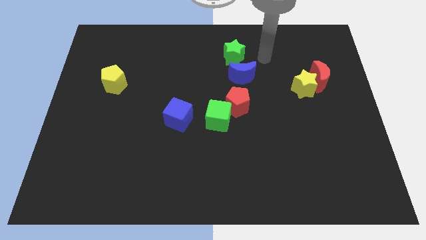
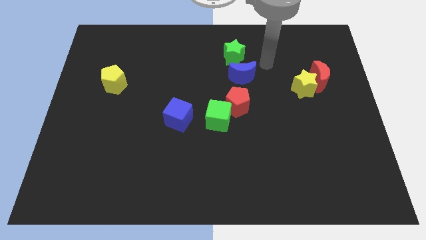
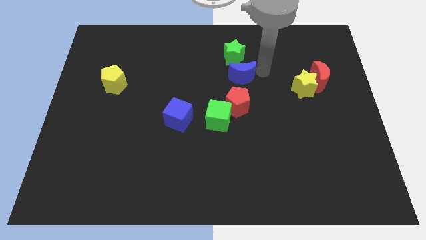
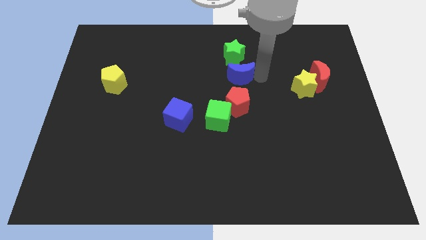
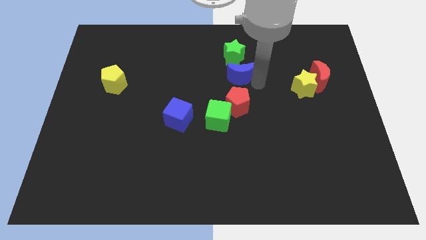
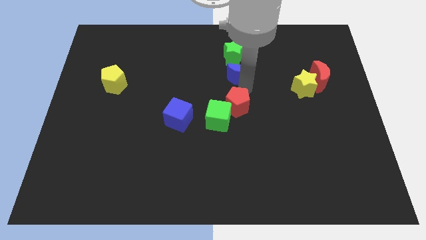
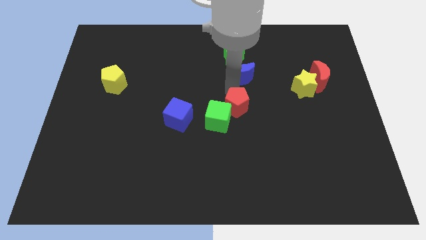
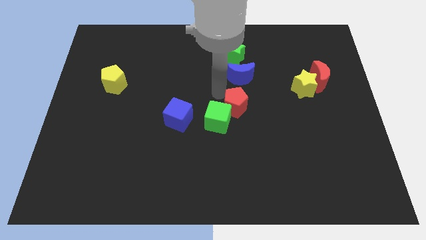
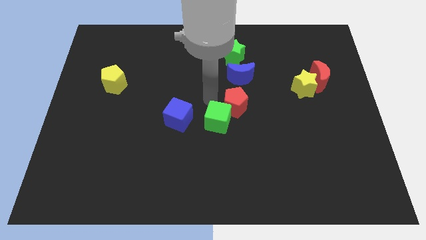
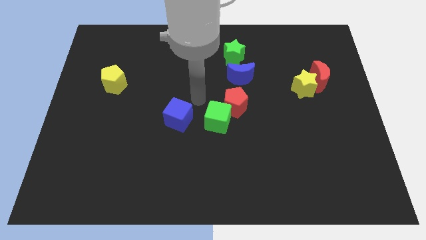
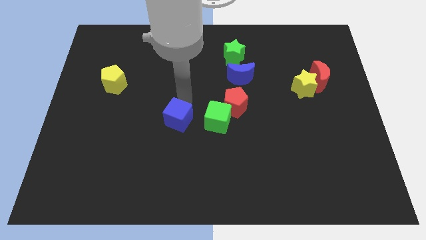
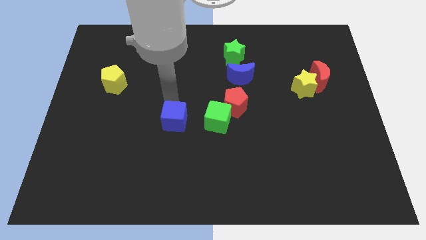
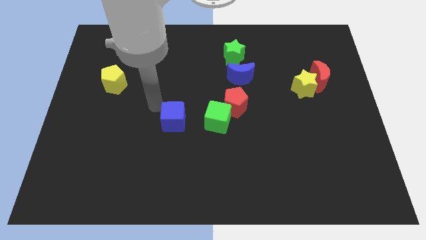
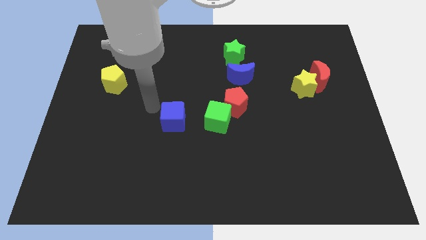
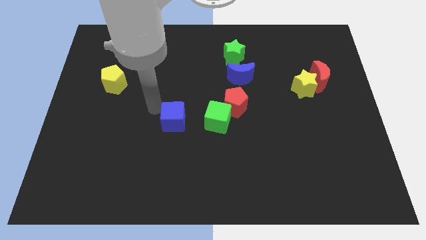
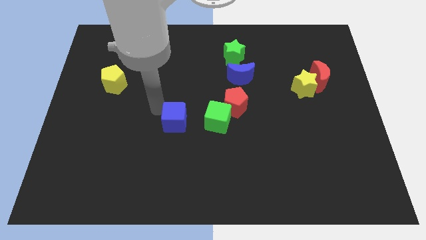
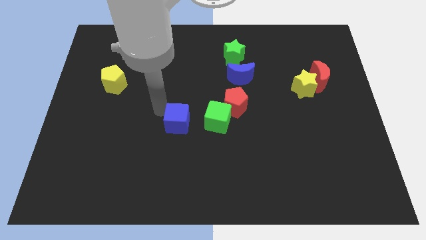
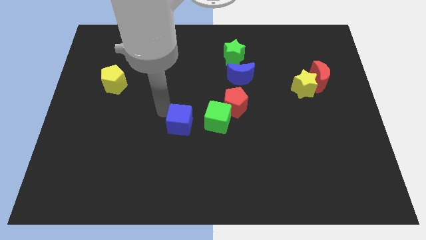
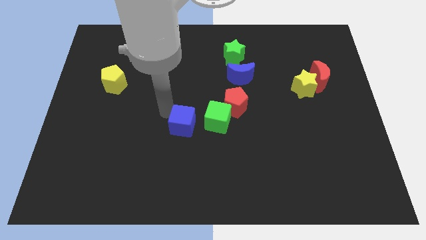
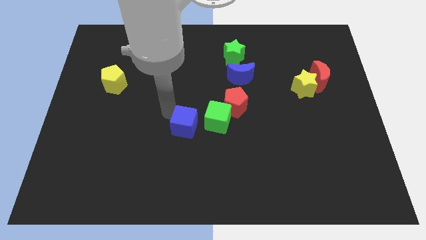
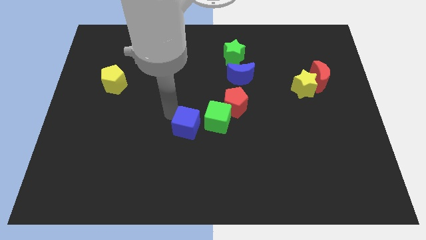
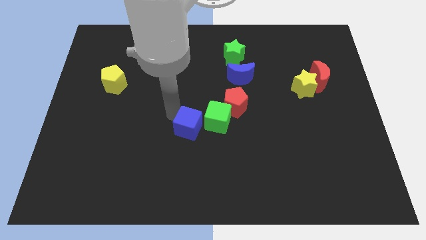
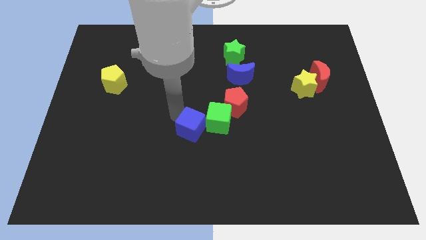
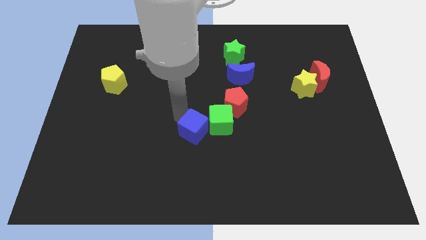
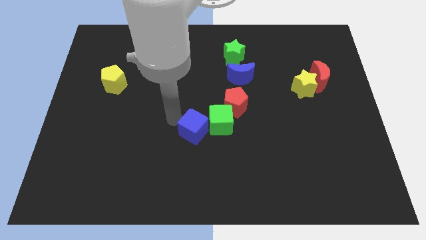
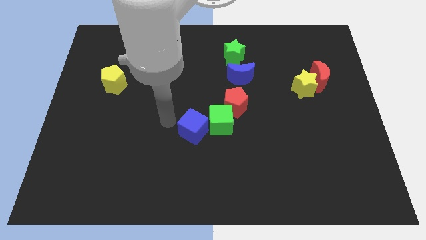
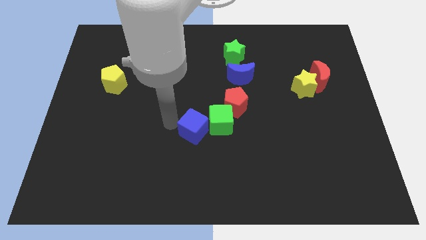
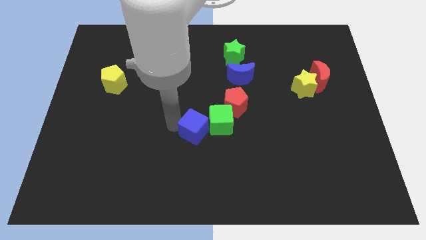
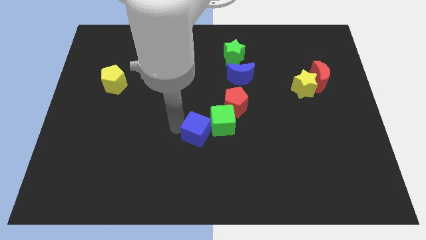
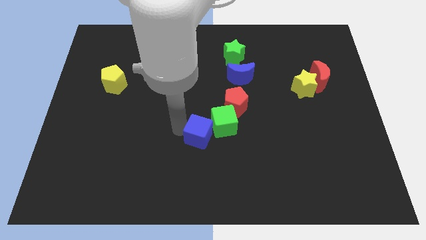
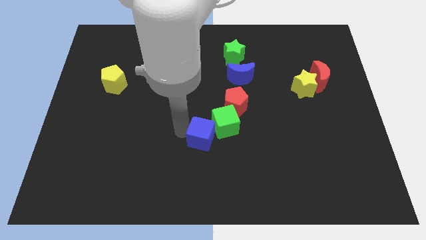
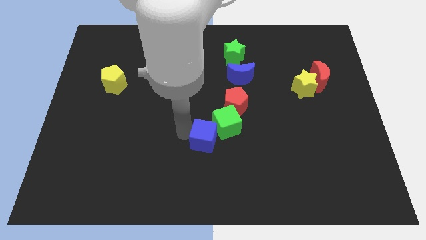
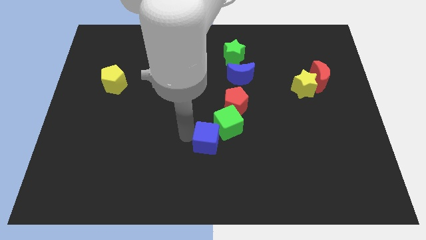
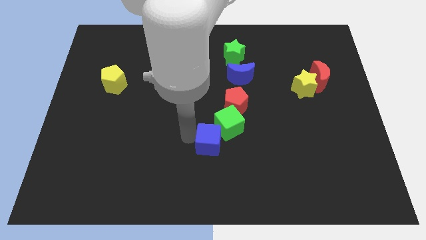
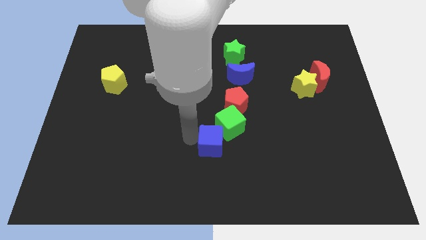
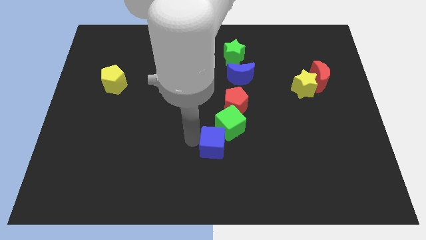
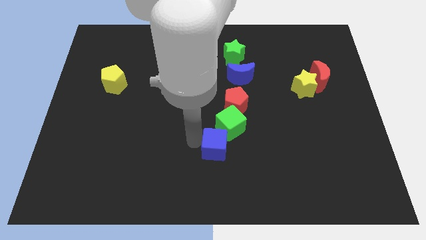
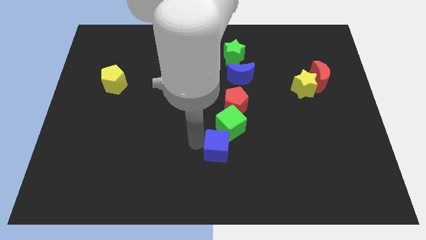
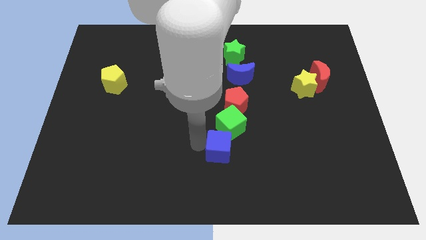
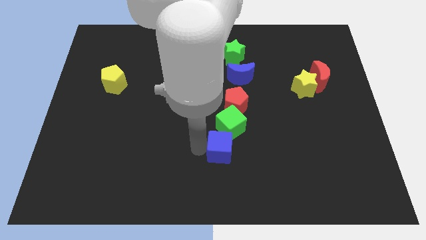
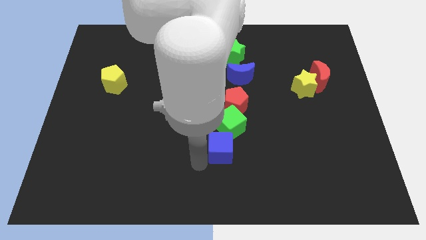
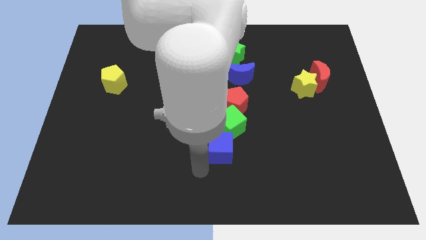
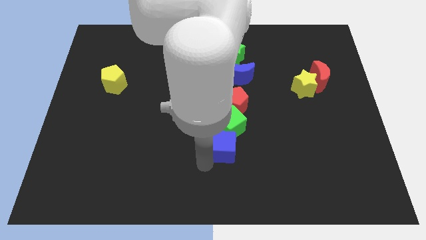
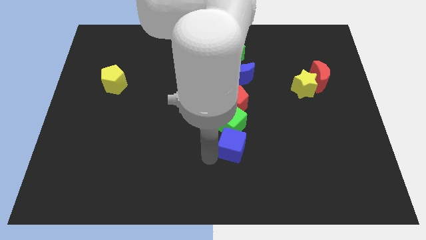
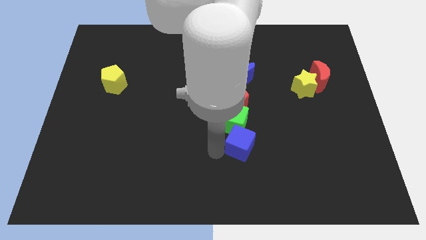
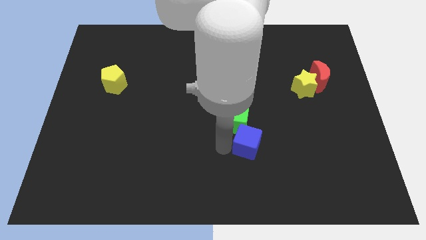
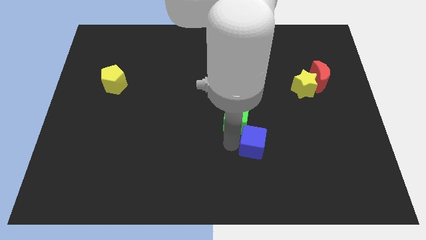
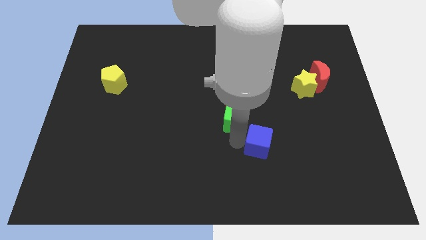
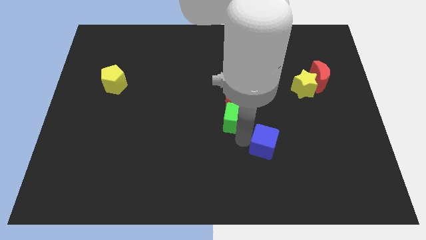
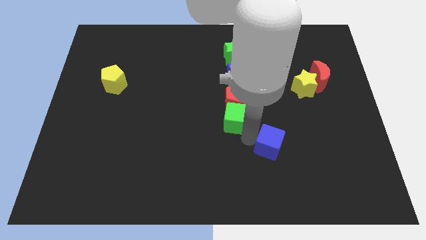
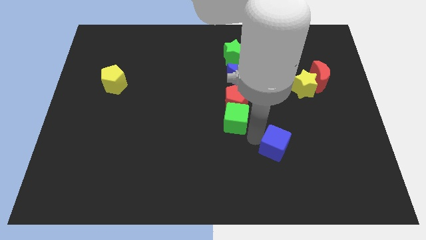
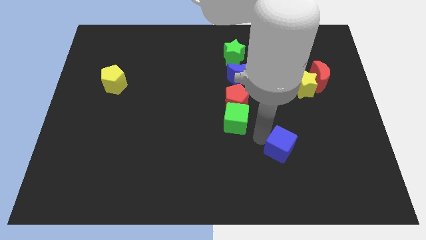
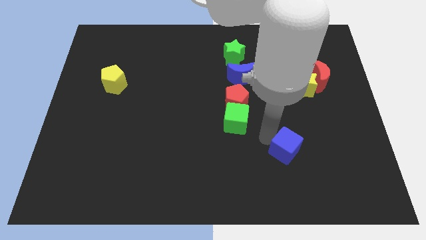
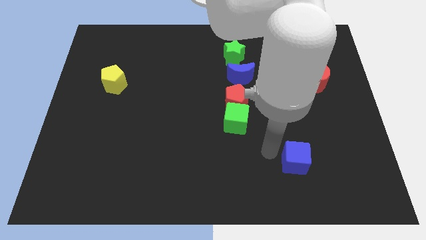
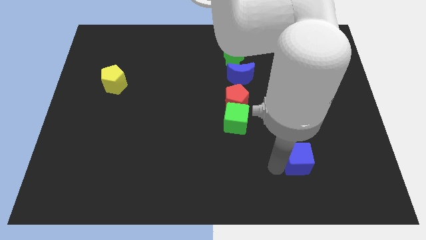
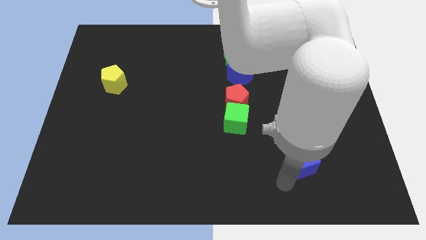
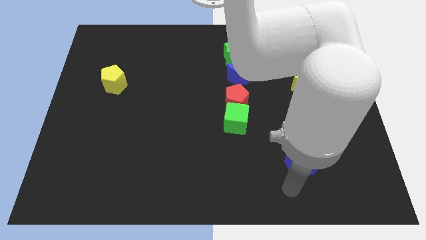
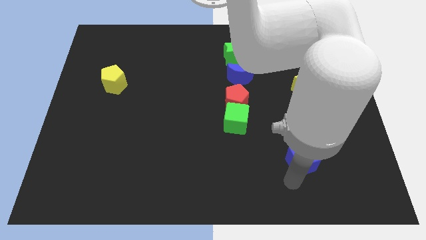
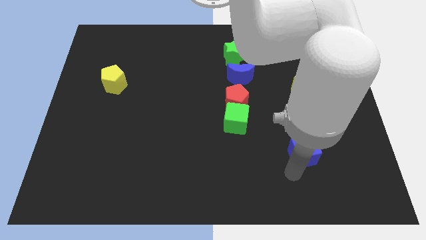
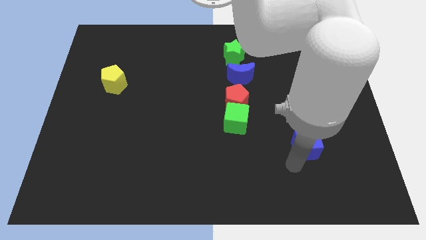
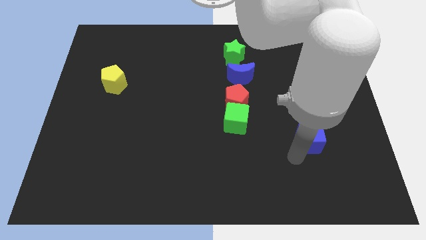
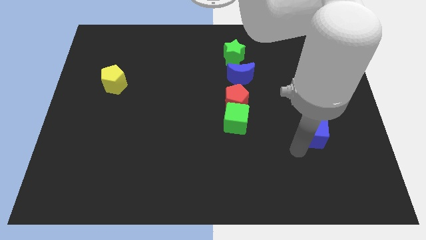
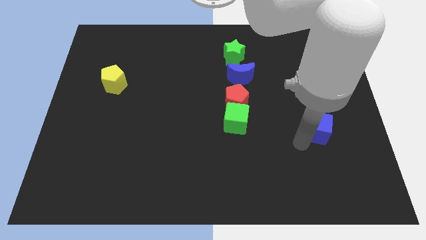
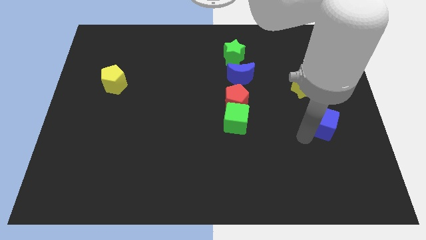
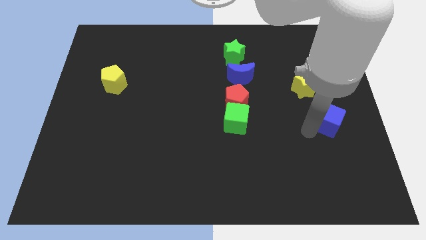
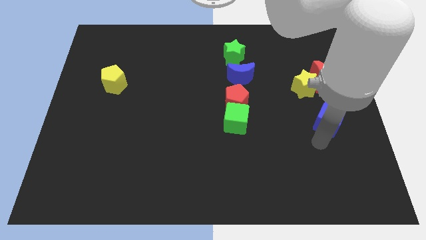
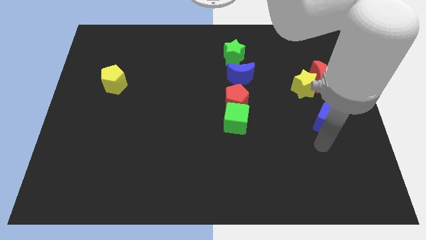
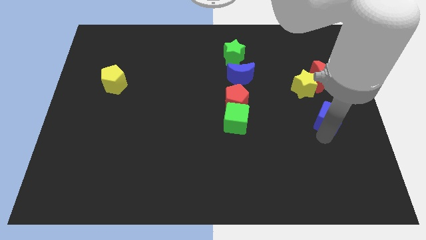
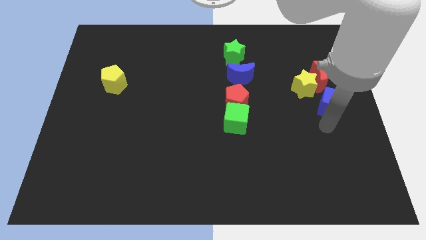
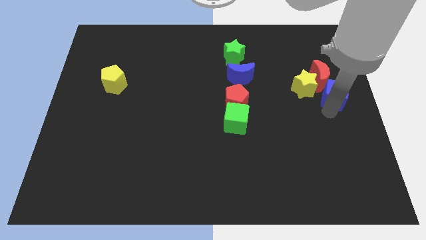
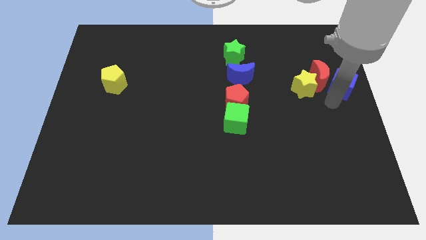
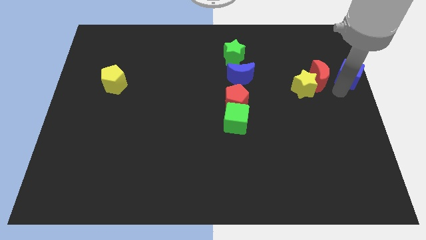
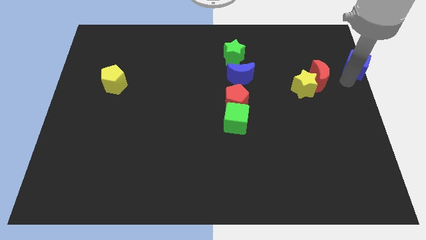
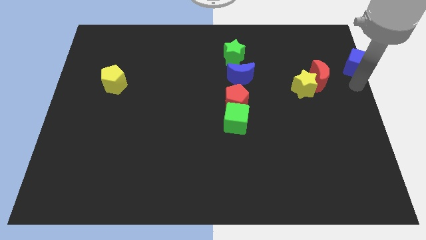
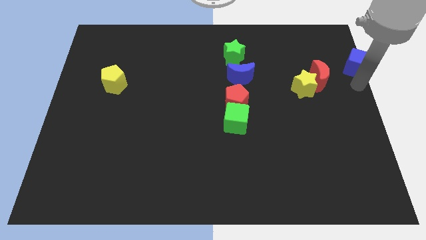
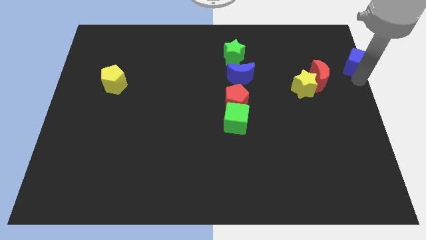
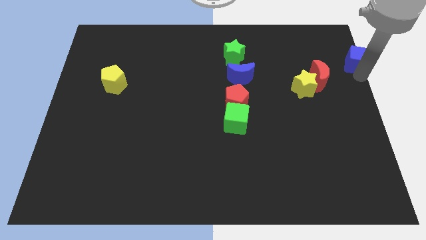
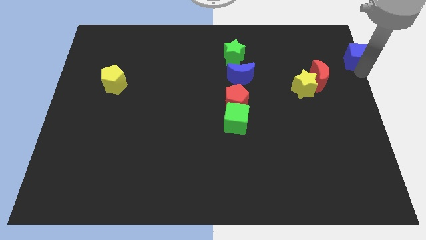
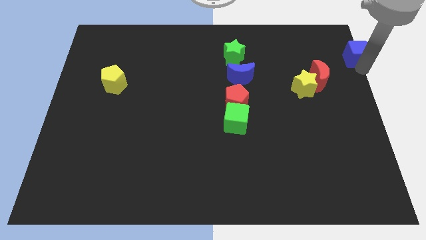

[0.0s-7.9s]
put the blue cube to the top right
